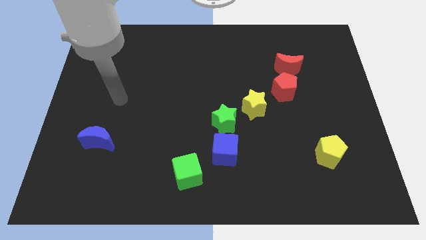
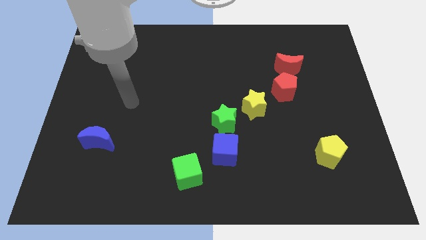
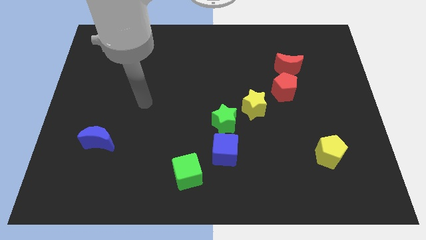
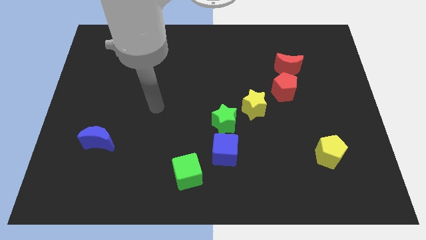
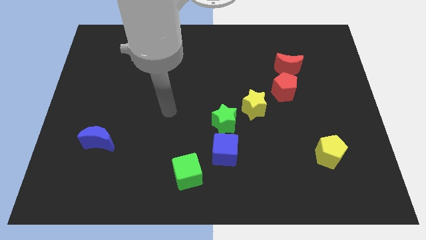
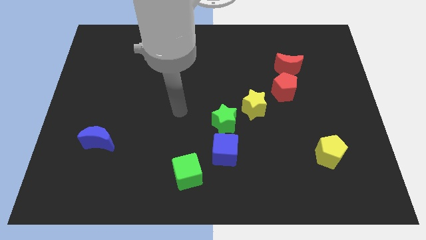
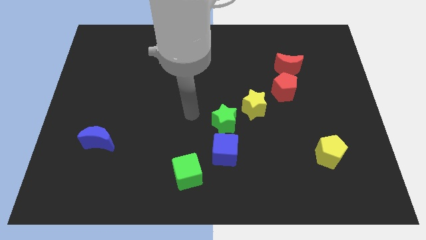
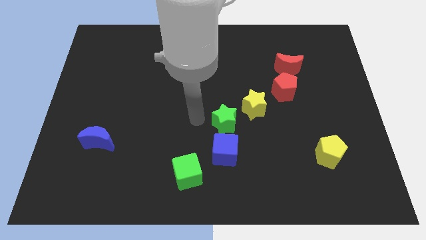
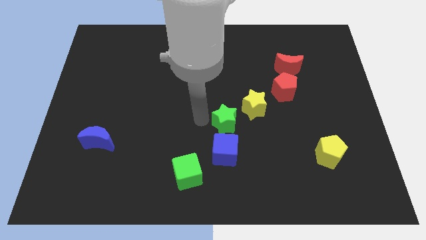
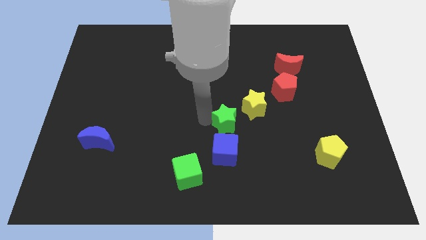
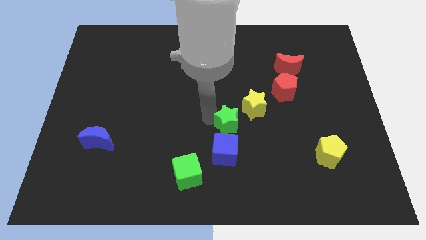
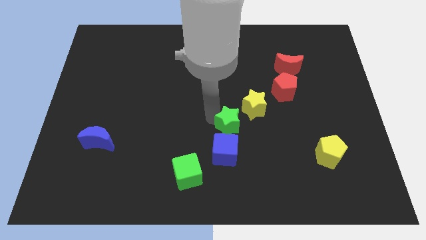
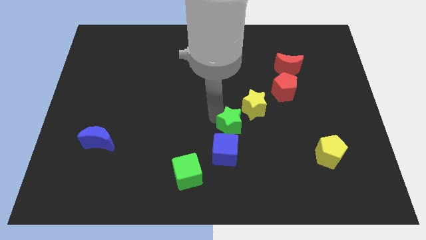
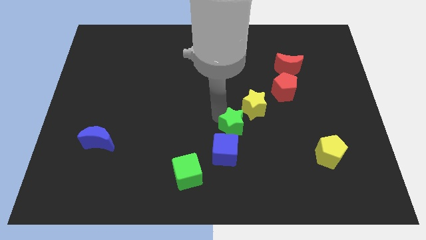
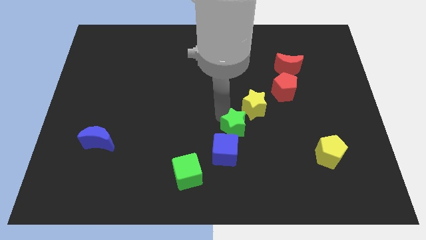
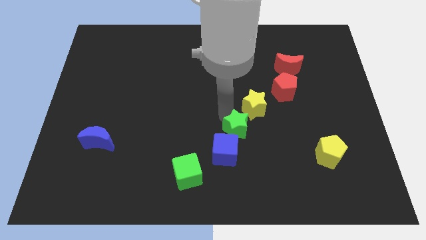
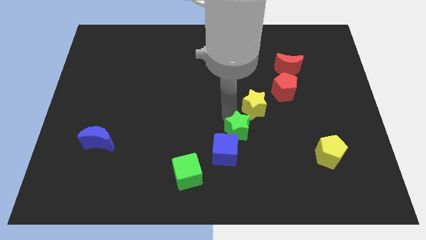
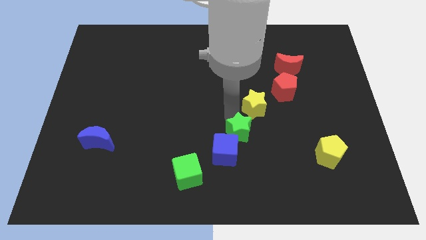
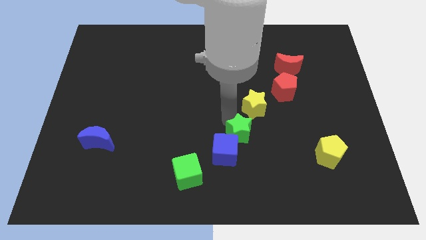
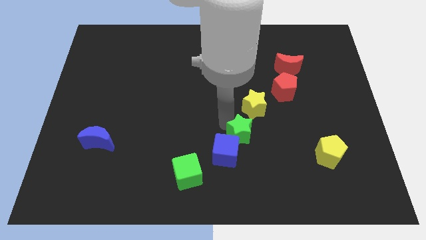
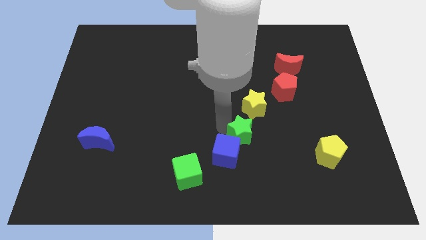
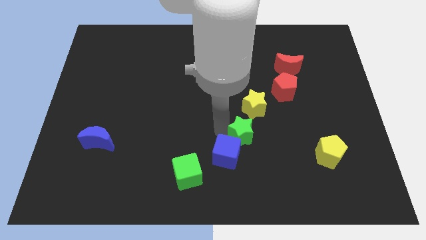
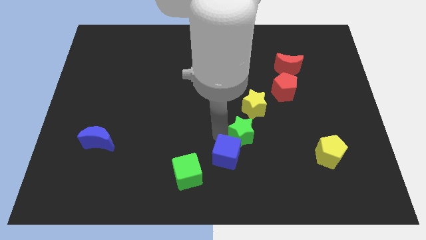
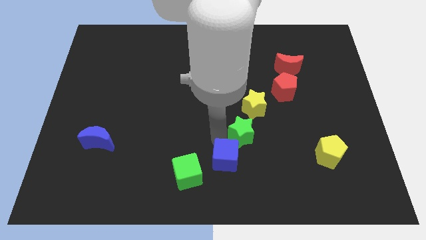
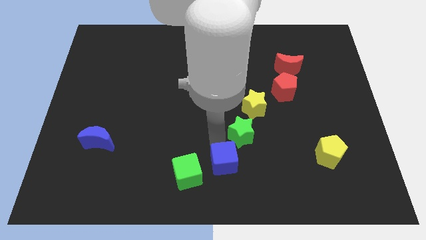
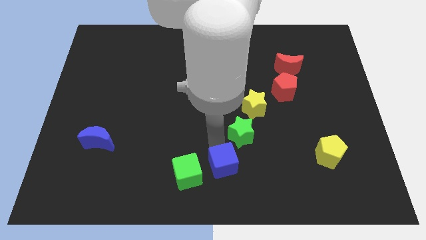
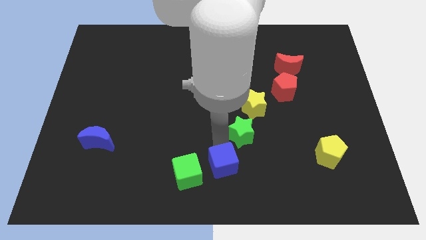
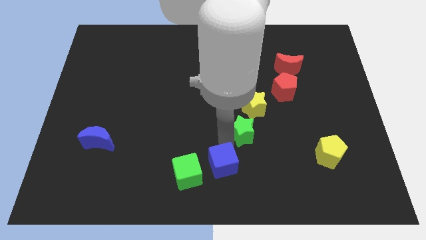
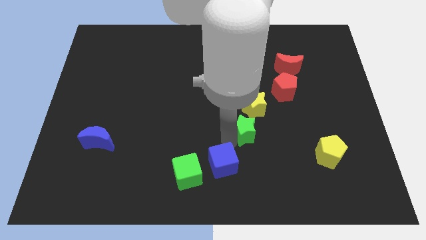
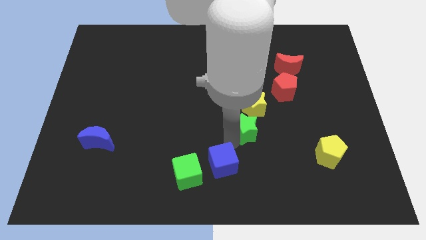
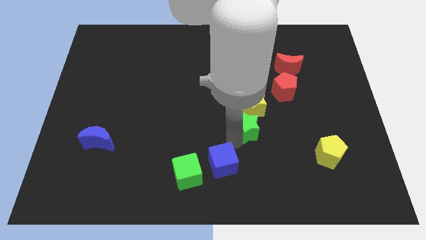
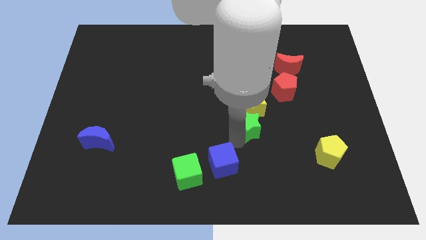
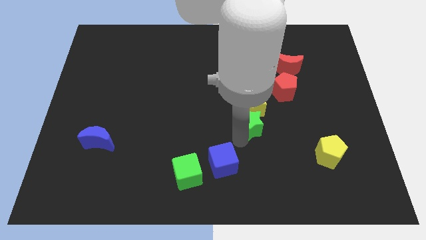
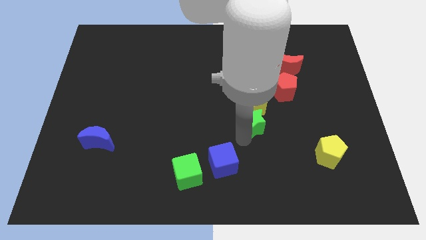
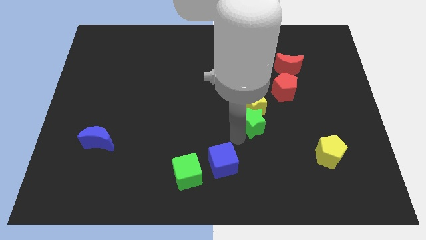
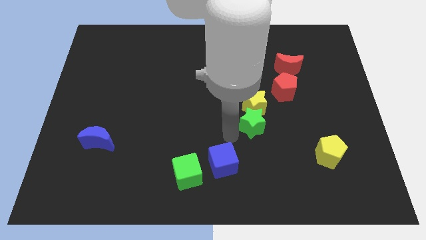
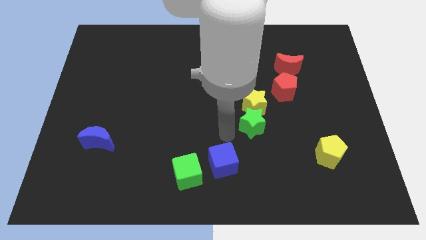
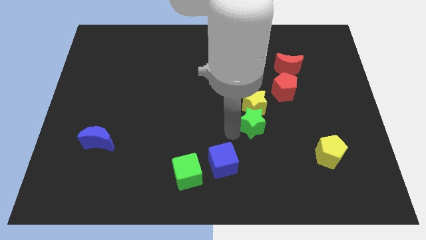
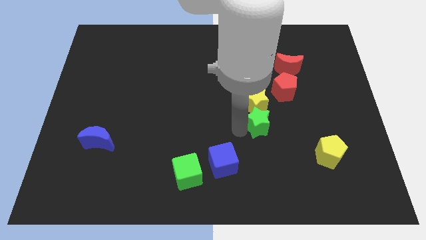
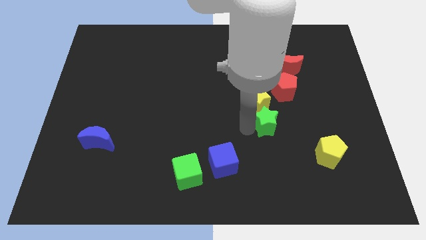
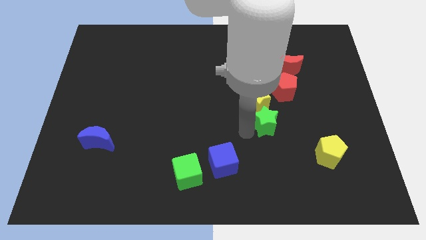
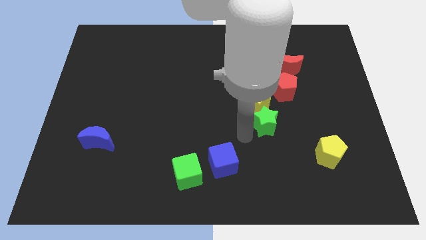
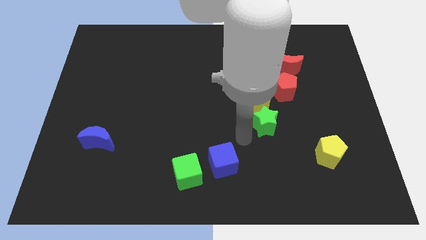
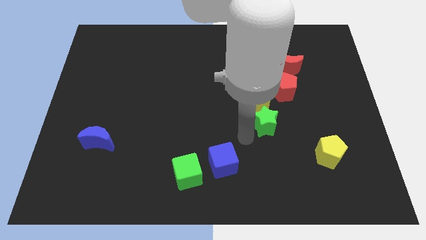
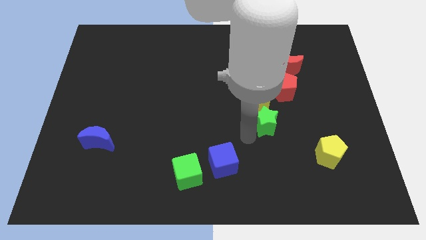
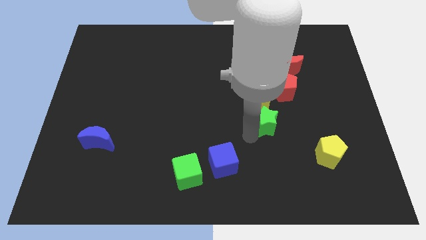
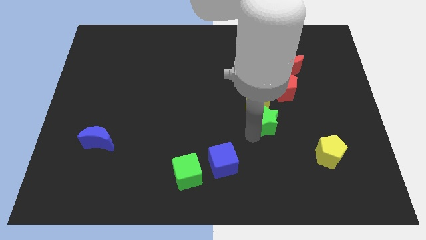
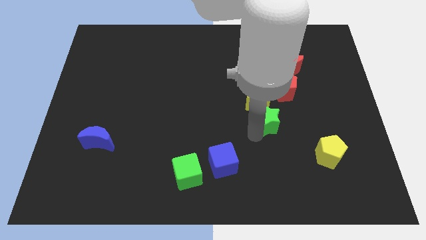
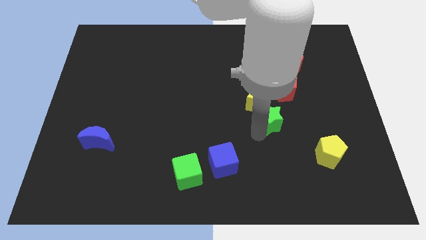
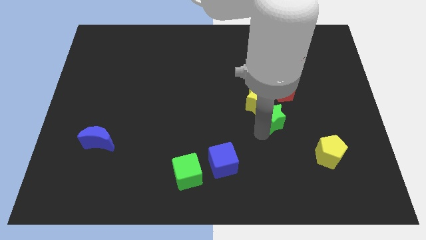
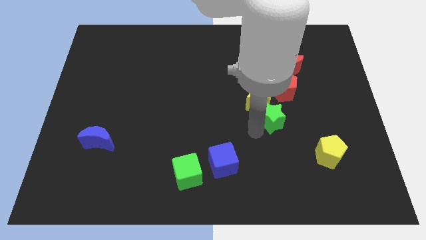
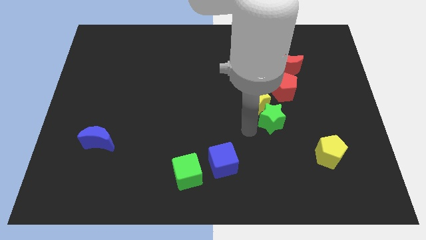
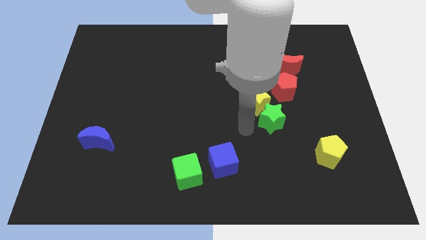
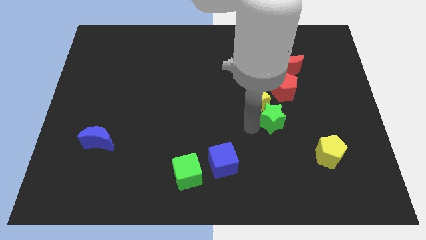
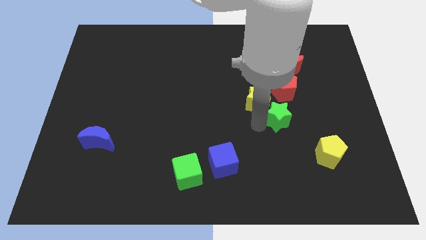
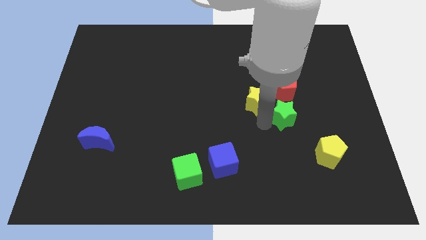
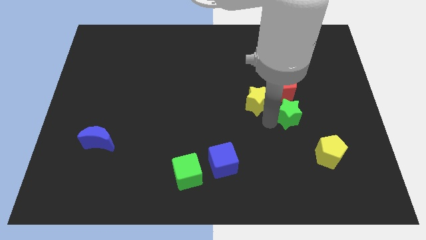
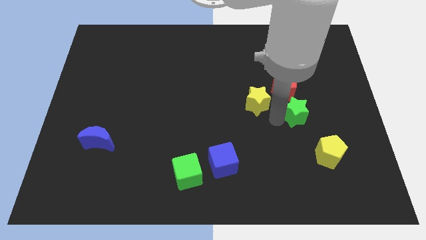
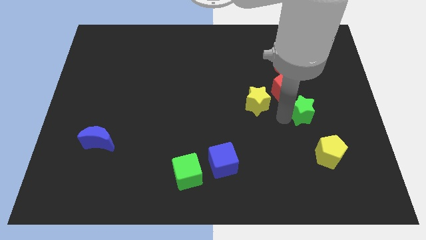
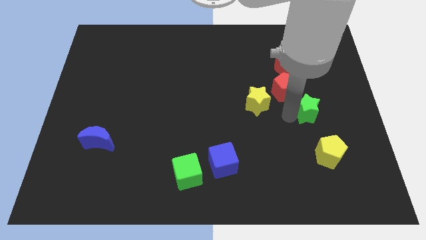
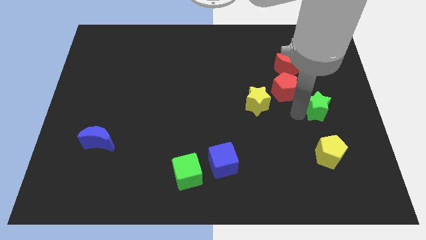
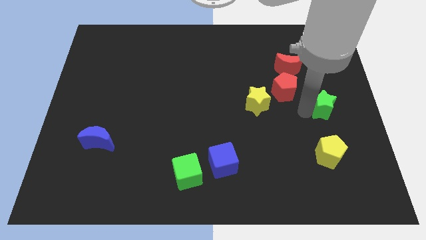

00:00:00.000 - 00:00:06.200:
push the green star to the center right

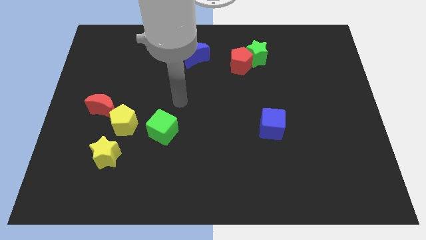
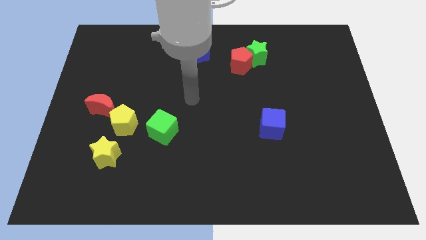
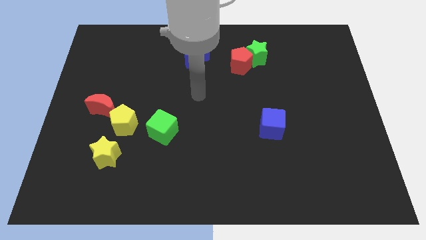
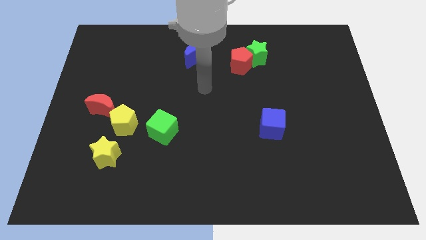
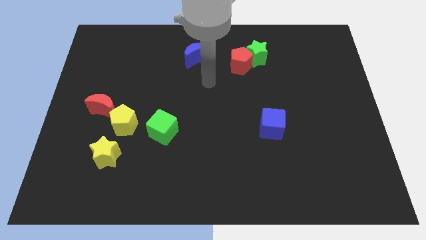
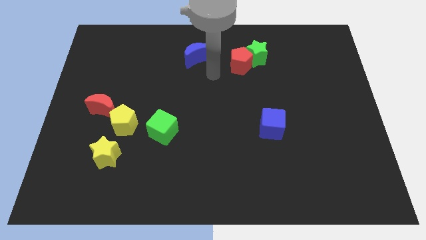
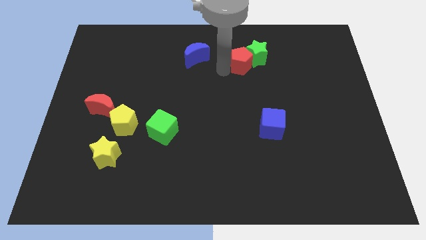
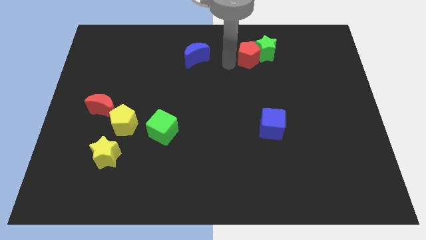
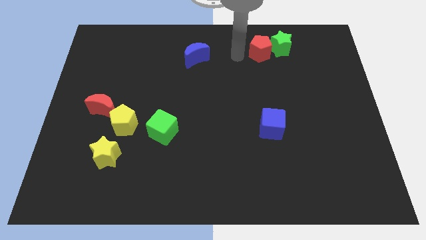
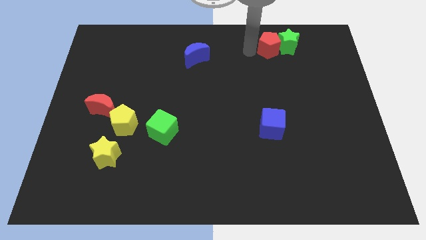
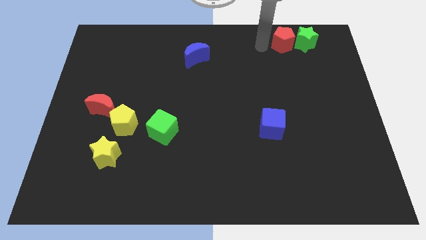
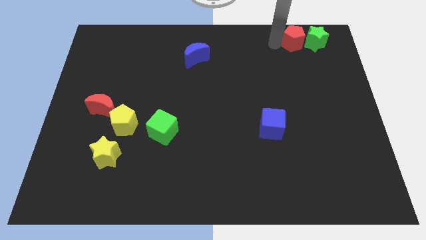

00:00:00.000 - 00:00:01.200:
push the green star to the top right of the board
